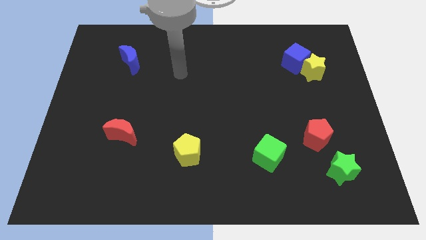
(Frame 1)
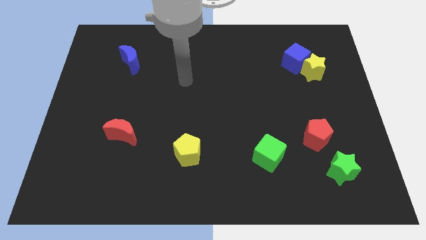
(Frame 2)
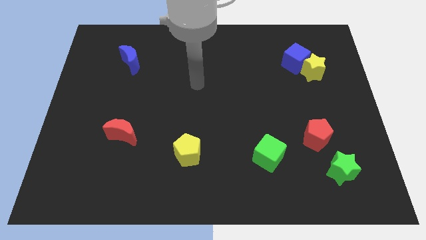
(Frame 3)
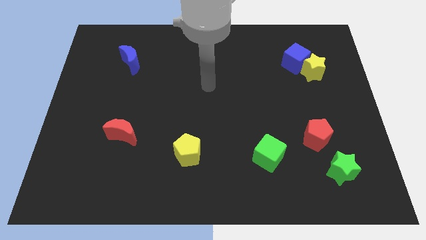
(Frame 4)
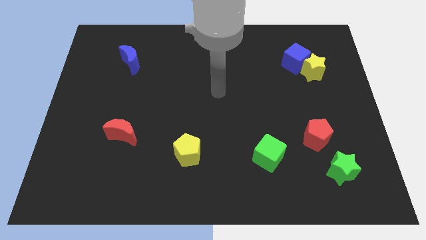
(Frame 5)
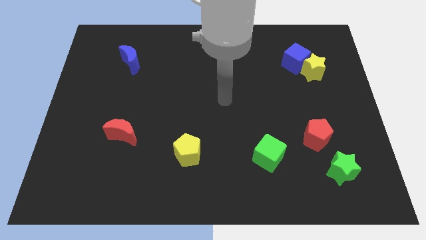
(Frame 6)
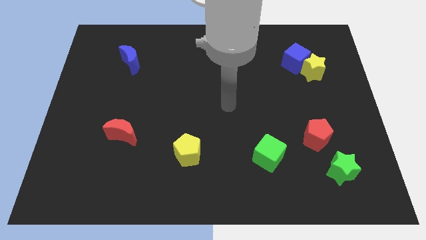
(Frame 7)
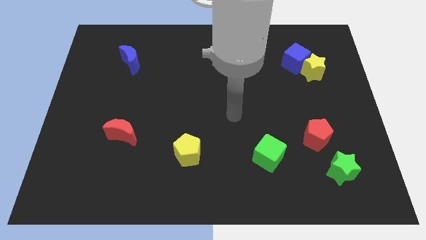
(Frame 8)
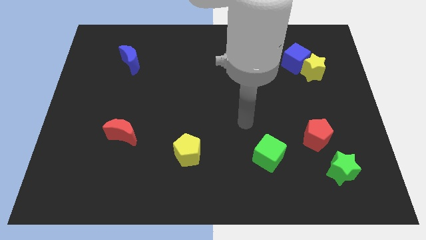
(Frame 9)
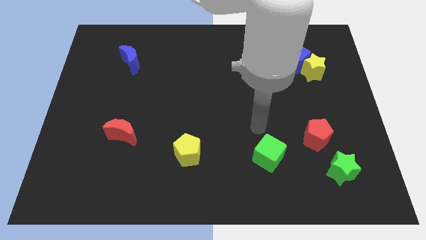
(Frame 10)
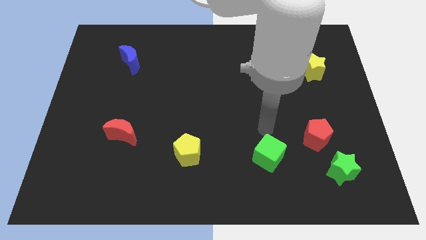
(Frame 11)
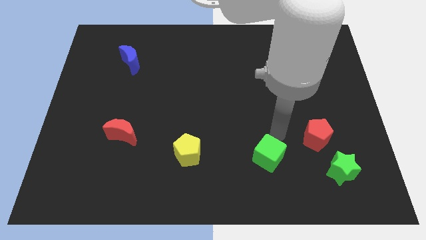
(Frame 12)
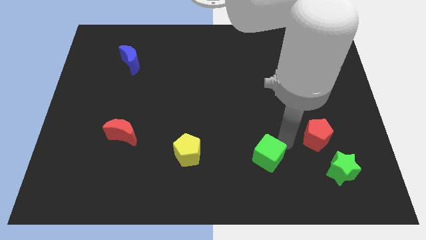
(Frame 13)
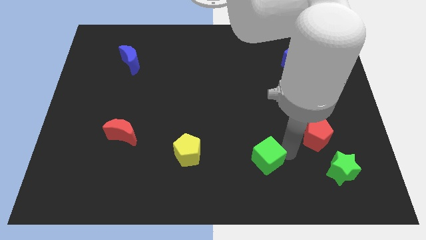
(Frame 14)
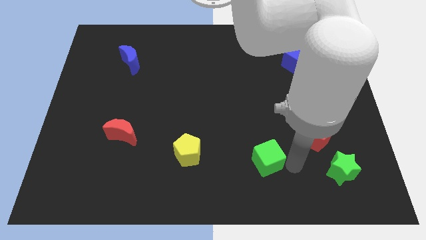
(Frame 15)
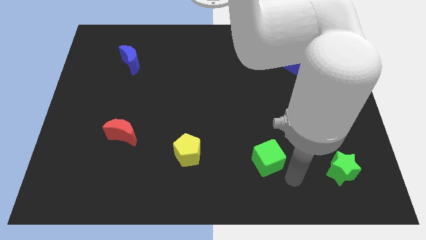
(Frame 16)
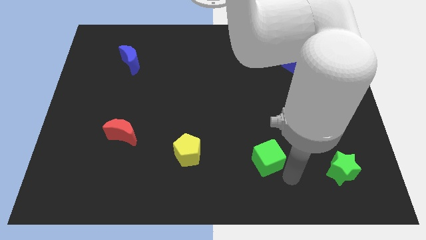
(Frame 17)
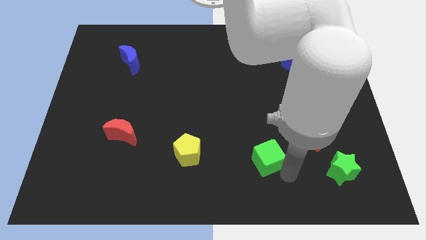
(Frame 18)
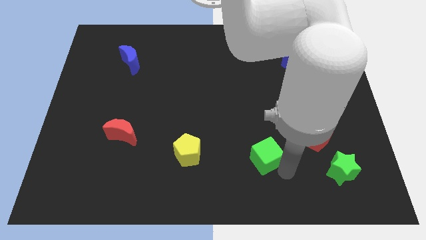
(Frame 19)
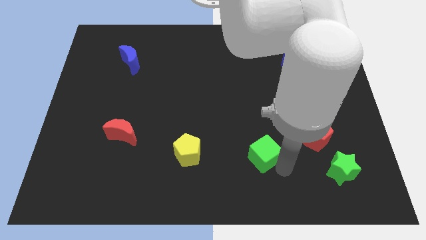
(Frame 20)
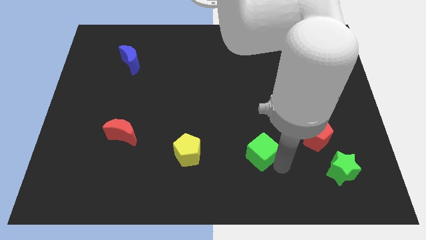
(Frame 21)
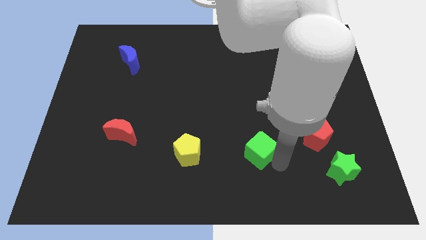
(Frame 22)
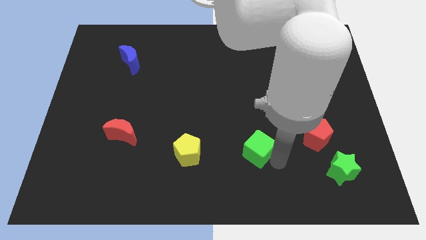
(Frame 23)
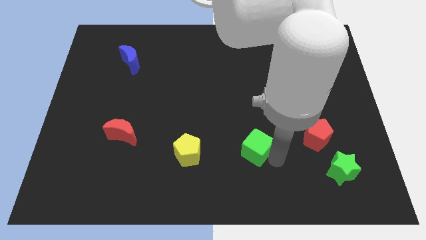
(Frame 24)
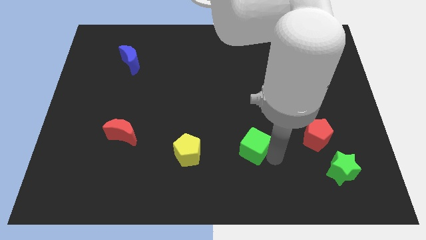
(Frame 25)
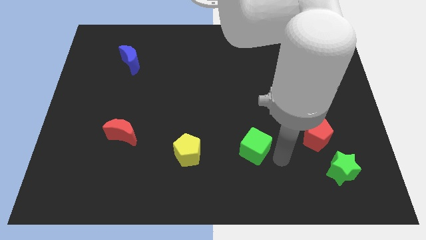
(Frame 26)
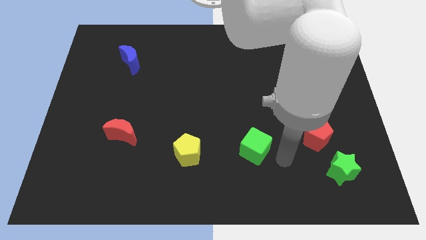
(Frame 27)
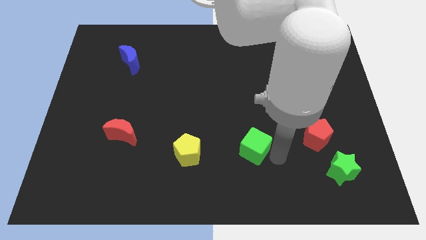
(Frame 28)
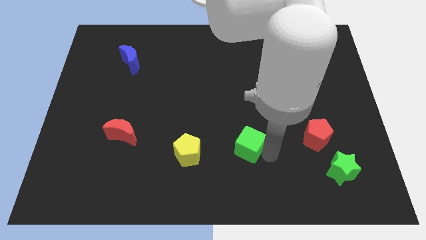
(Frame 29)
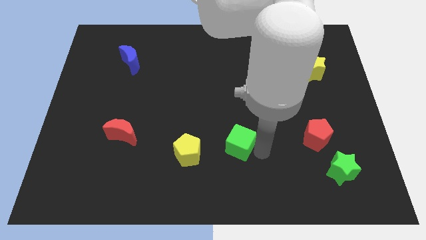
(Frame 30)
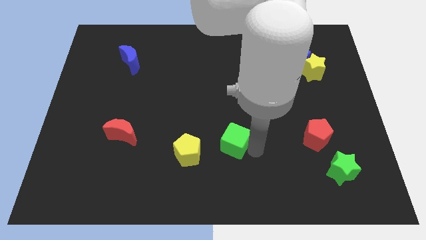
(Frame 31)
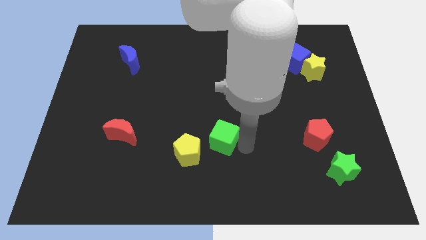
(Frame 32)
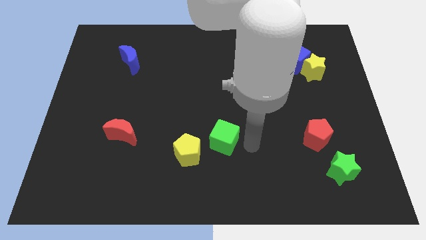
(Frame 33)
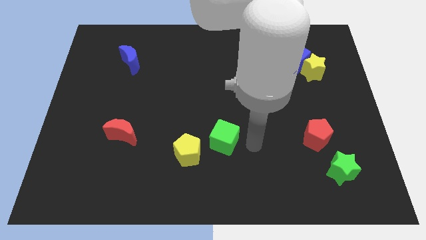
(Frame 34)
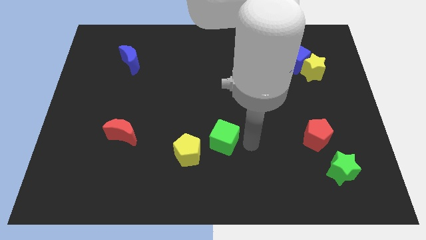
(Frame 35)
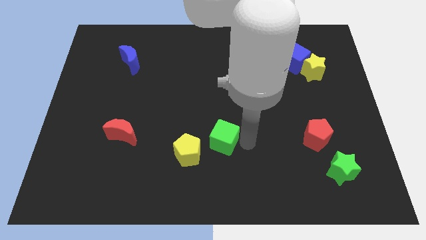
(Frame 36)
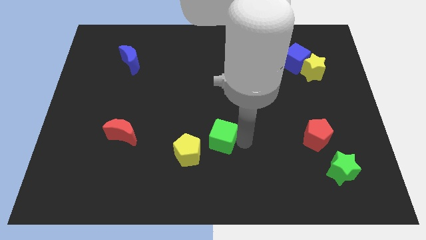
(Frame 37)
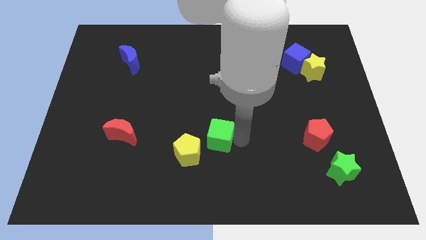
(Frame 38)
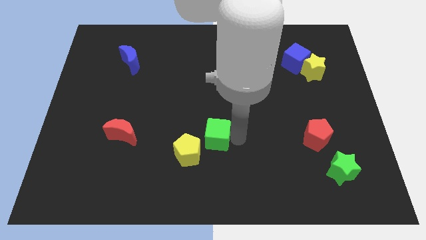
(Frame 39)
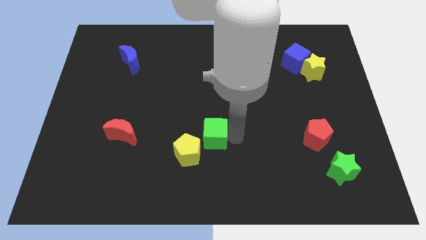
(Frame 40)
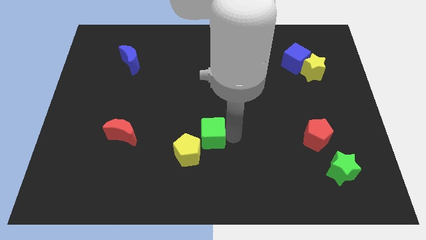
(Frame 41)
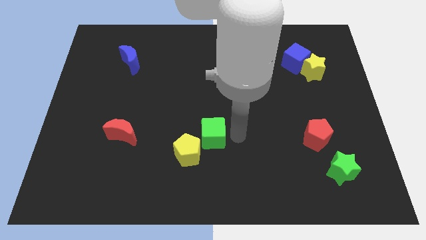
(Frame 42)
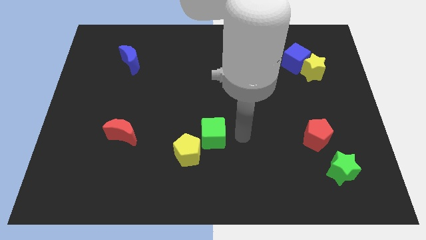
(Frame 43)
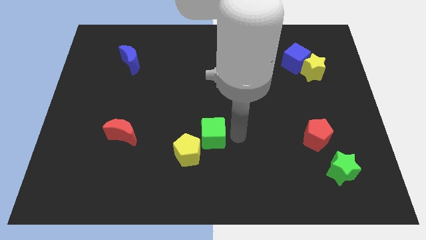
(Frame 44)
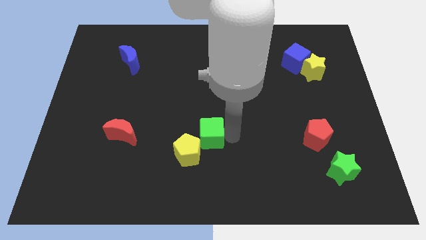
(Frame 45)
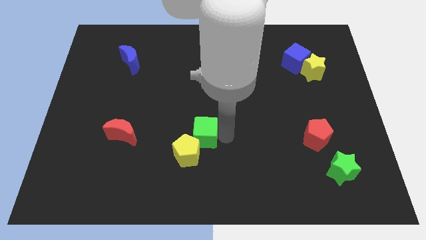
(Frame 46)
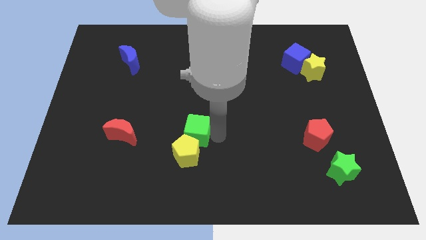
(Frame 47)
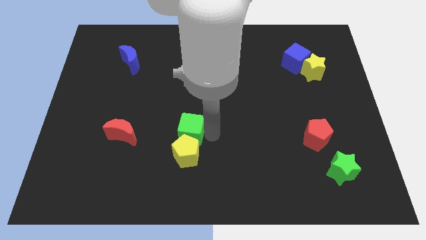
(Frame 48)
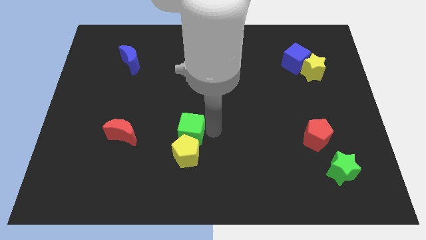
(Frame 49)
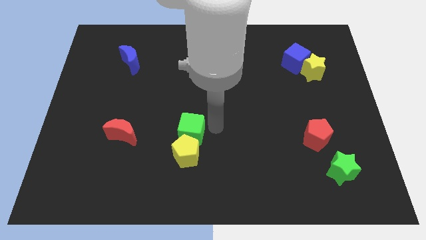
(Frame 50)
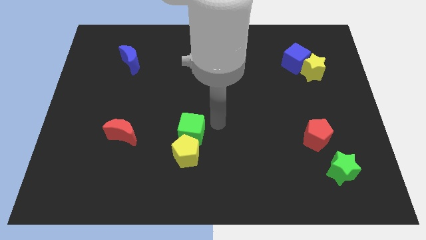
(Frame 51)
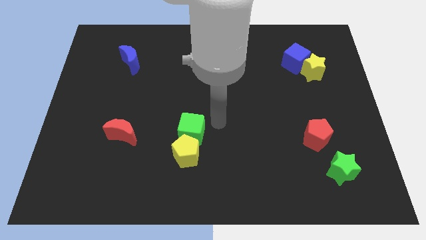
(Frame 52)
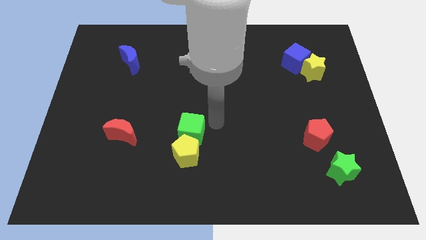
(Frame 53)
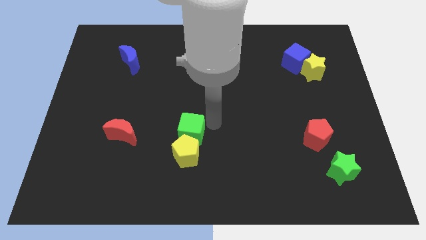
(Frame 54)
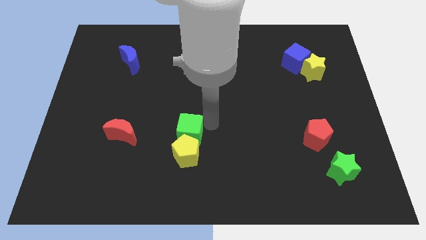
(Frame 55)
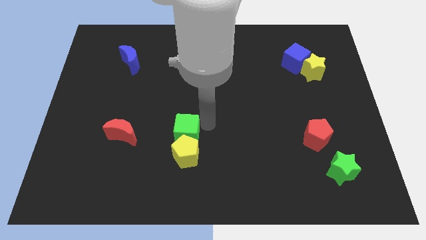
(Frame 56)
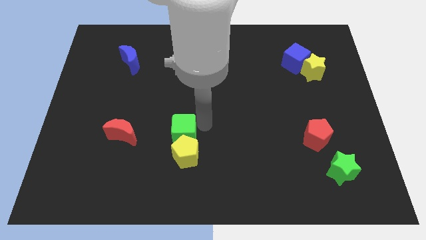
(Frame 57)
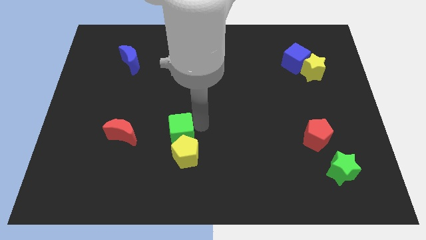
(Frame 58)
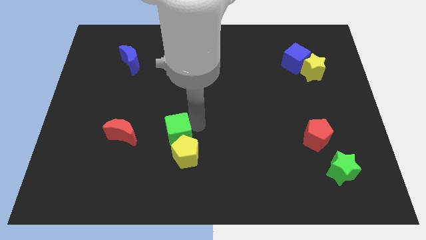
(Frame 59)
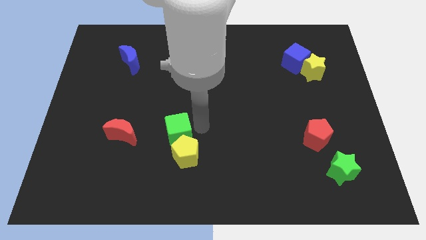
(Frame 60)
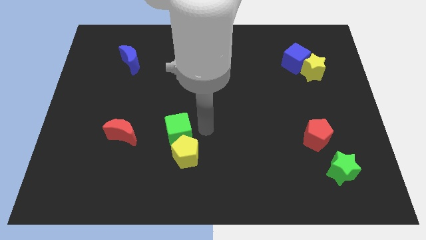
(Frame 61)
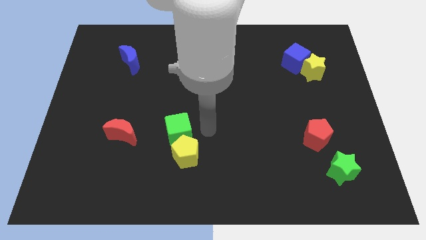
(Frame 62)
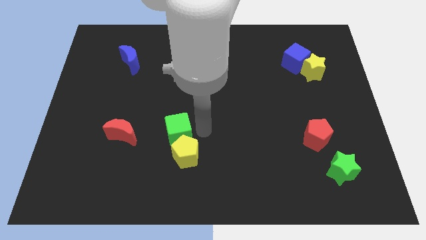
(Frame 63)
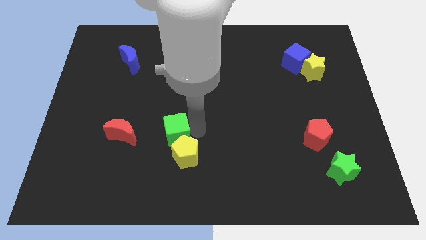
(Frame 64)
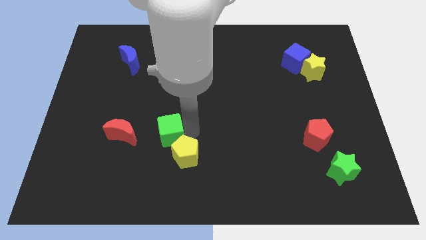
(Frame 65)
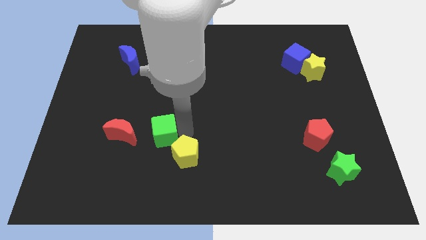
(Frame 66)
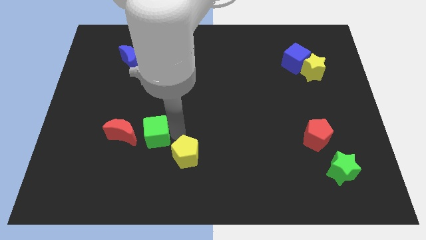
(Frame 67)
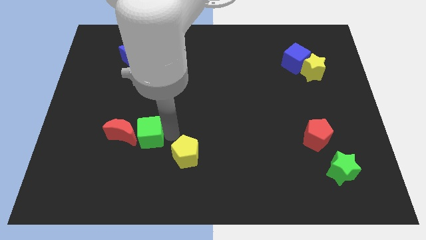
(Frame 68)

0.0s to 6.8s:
push the green cube to the red moon
